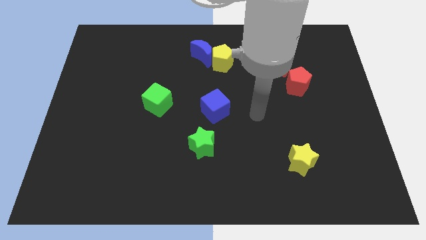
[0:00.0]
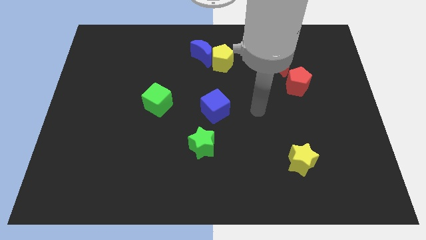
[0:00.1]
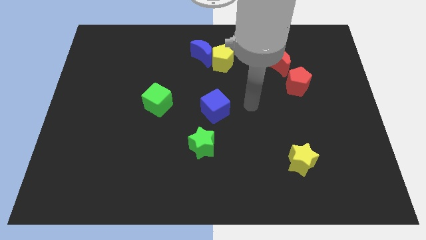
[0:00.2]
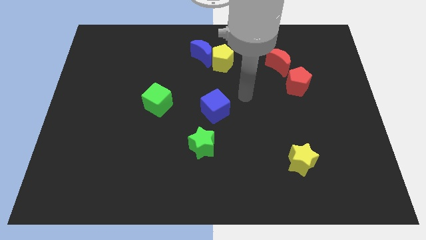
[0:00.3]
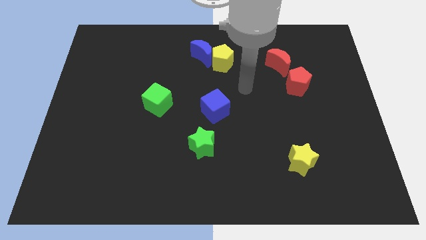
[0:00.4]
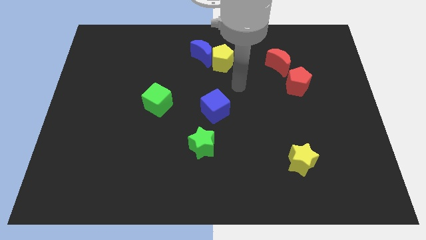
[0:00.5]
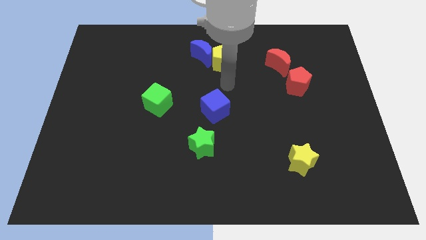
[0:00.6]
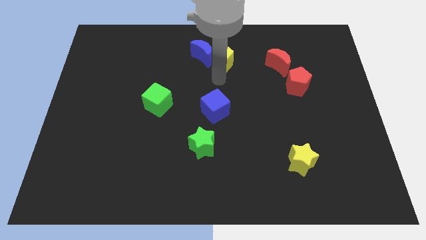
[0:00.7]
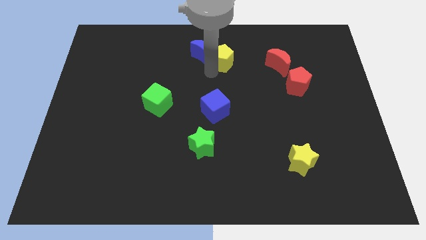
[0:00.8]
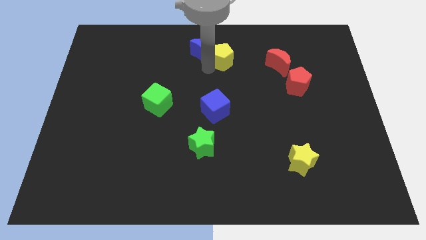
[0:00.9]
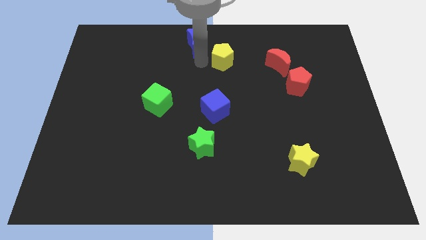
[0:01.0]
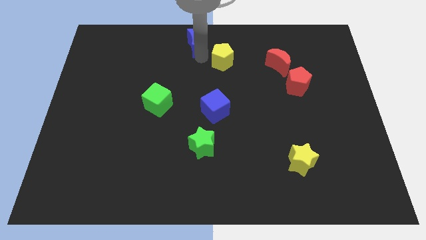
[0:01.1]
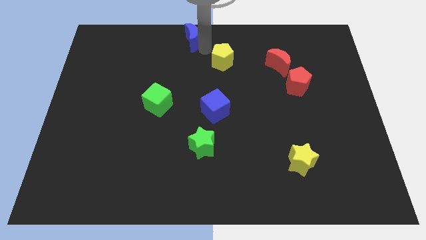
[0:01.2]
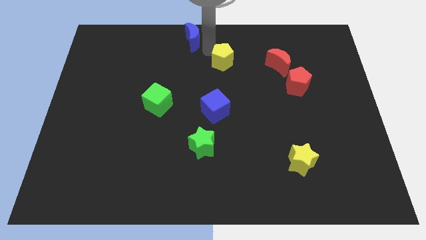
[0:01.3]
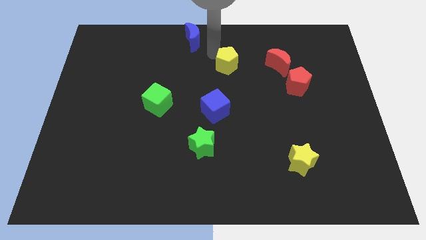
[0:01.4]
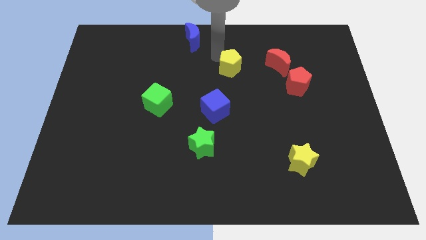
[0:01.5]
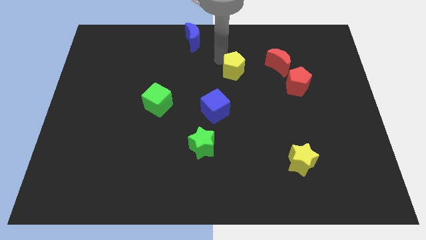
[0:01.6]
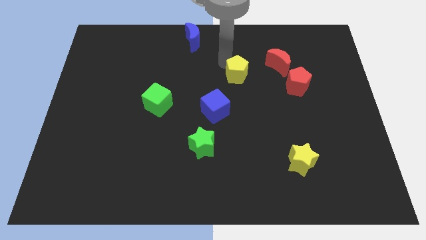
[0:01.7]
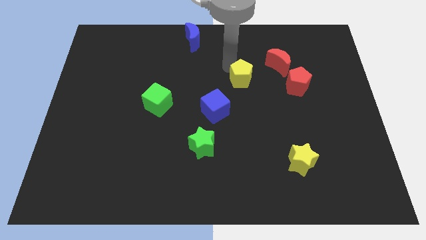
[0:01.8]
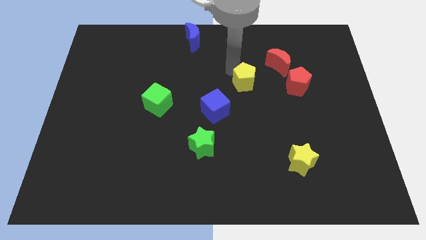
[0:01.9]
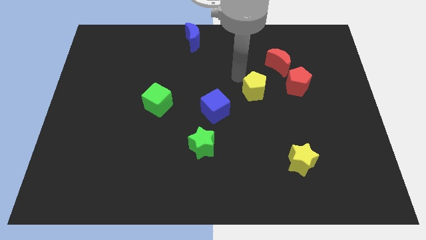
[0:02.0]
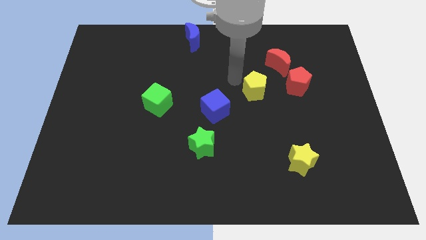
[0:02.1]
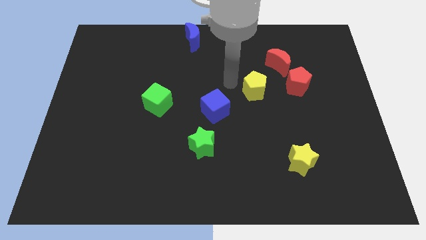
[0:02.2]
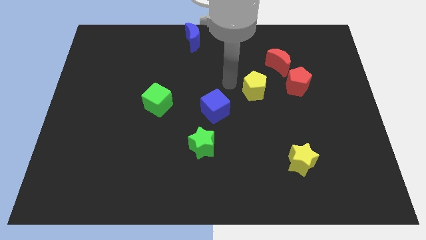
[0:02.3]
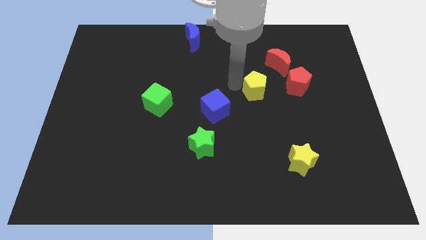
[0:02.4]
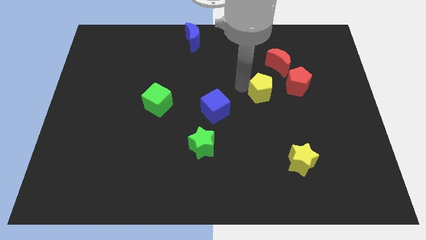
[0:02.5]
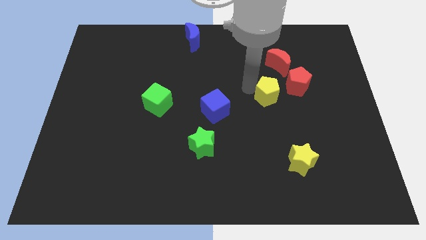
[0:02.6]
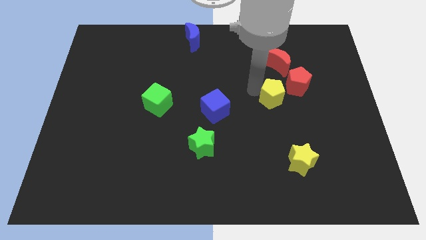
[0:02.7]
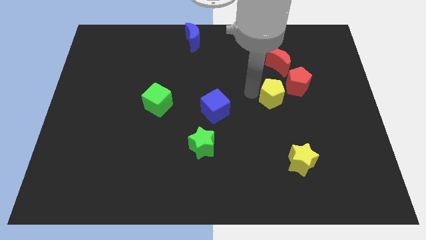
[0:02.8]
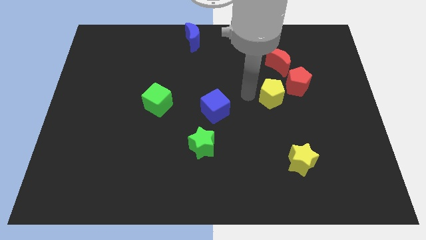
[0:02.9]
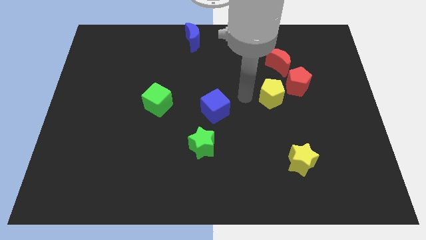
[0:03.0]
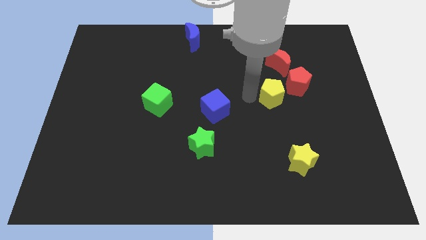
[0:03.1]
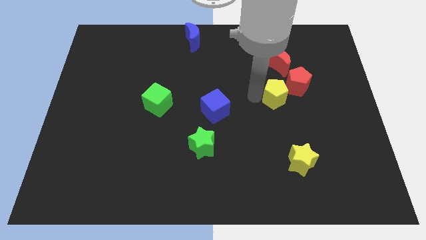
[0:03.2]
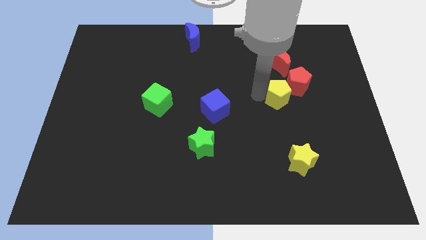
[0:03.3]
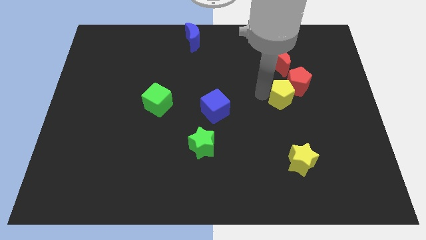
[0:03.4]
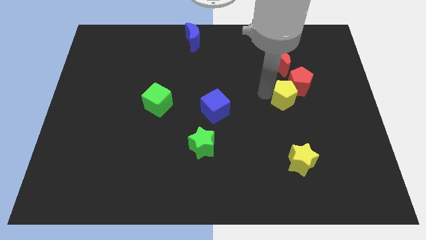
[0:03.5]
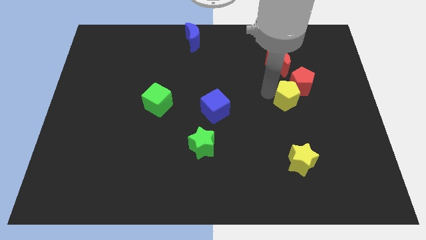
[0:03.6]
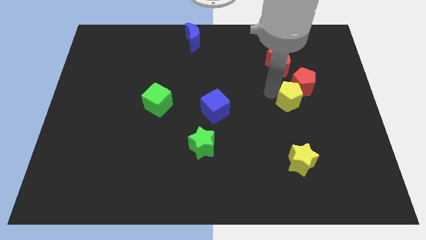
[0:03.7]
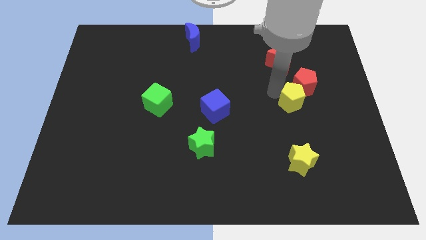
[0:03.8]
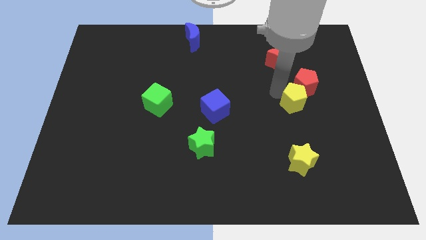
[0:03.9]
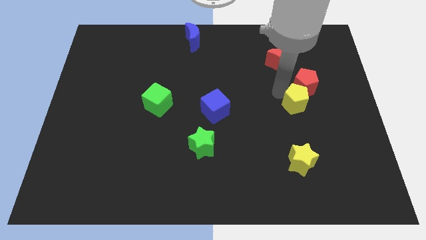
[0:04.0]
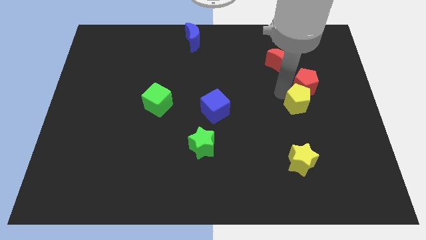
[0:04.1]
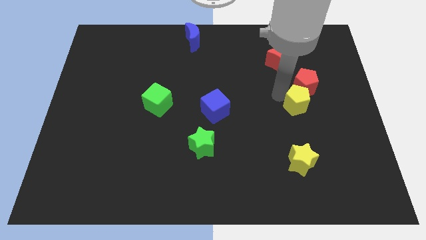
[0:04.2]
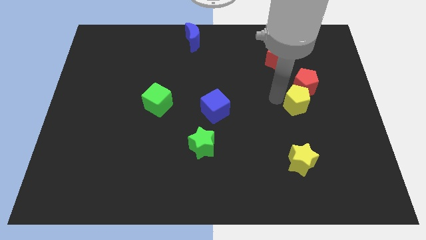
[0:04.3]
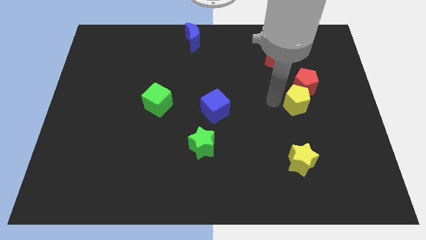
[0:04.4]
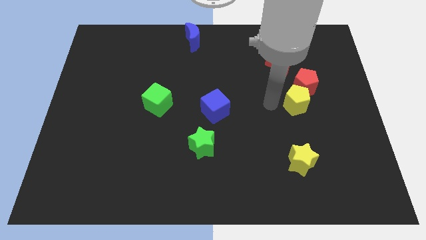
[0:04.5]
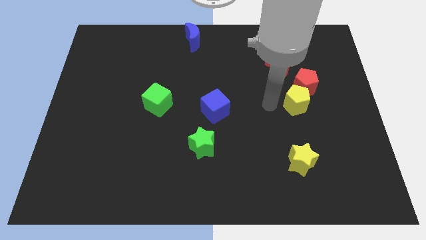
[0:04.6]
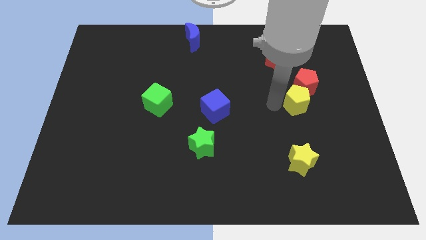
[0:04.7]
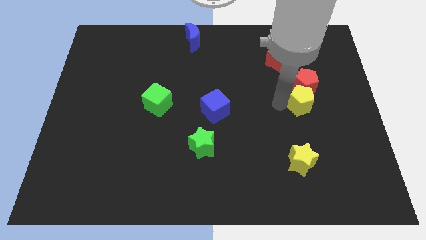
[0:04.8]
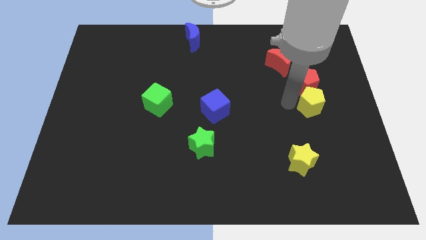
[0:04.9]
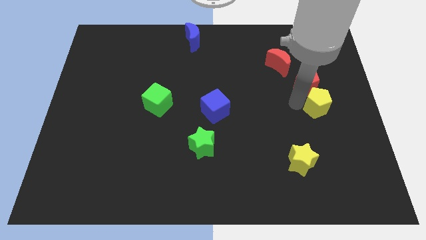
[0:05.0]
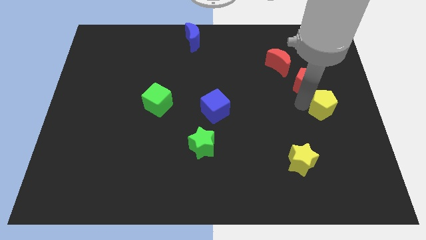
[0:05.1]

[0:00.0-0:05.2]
slide the yellow pentagon to the right side of the board
